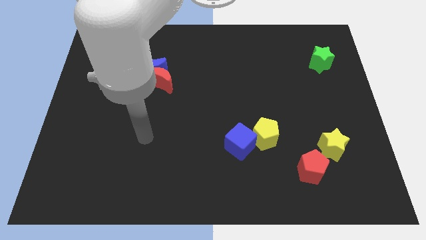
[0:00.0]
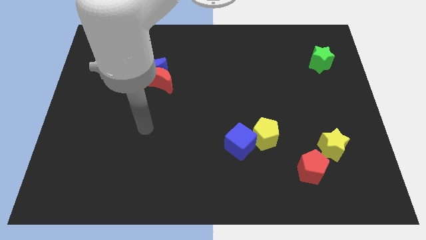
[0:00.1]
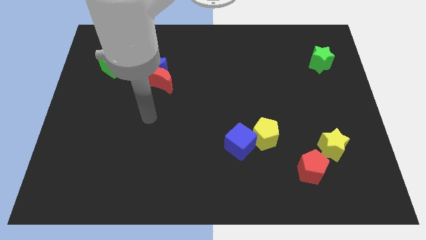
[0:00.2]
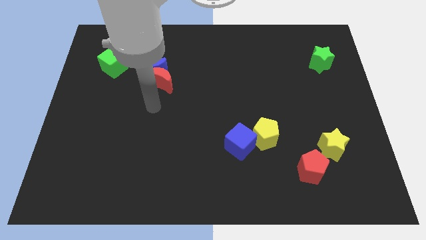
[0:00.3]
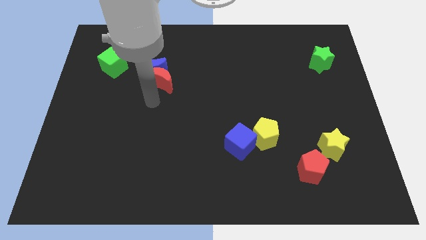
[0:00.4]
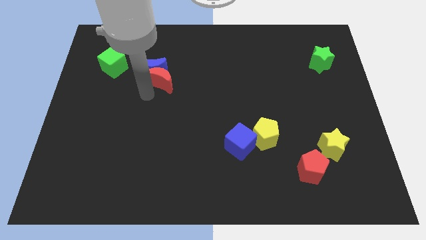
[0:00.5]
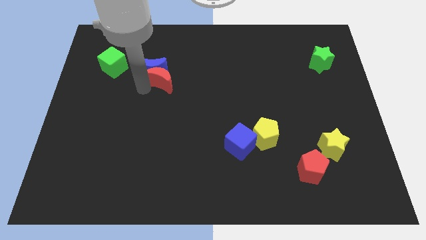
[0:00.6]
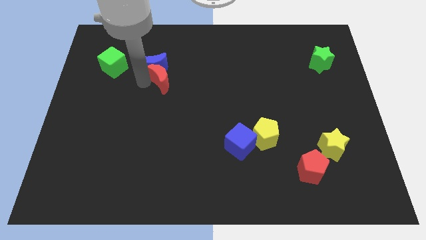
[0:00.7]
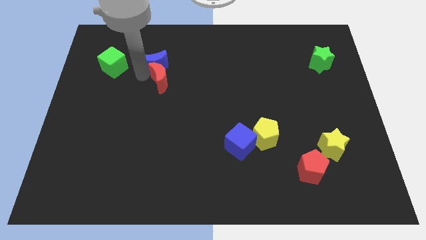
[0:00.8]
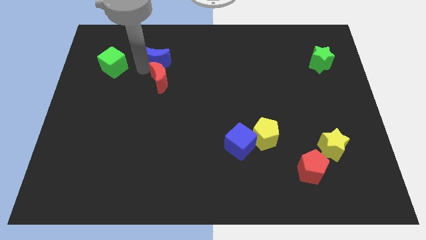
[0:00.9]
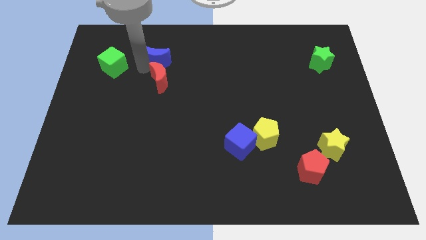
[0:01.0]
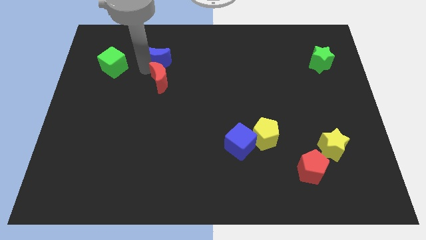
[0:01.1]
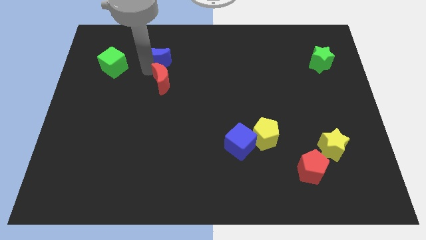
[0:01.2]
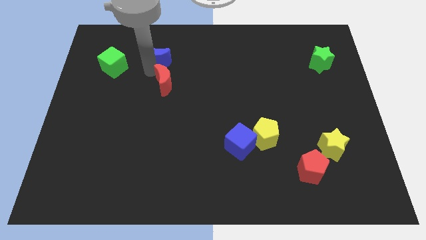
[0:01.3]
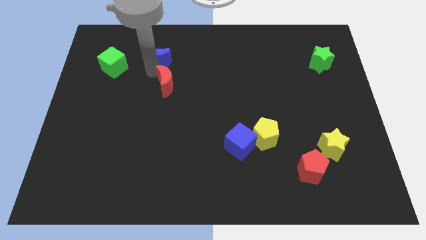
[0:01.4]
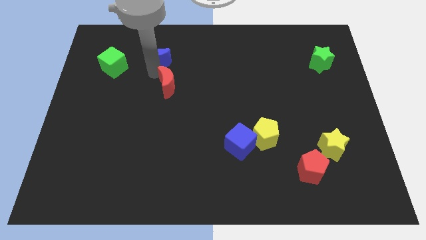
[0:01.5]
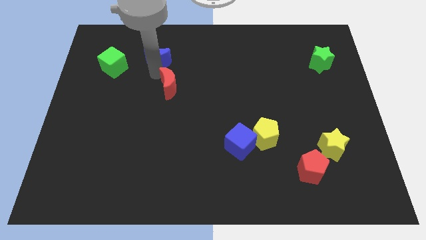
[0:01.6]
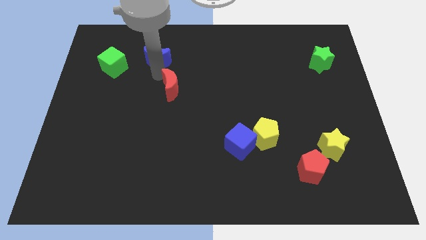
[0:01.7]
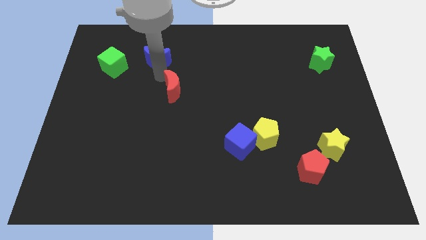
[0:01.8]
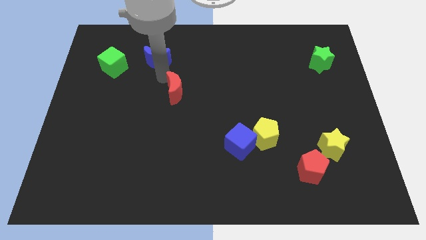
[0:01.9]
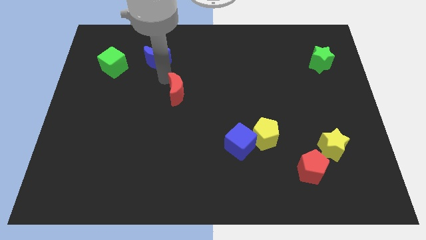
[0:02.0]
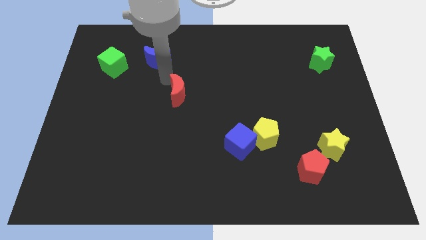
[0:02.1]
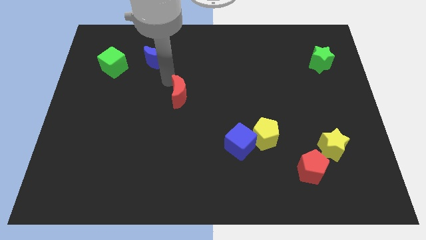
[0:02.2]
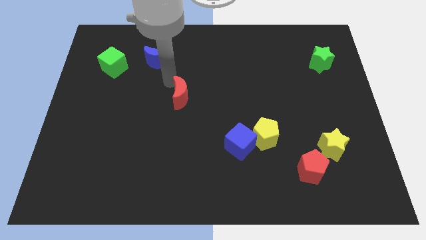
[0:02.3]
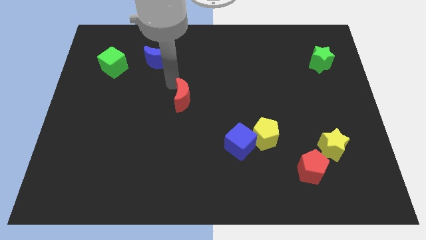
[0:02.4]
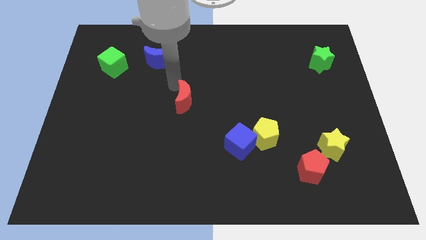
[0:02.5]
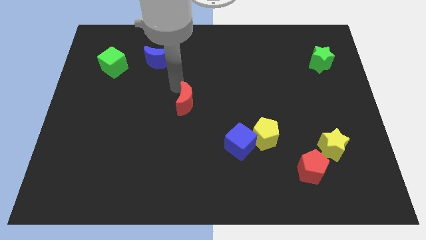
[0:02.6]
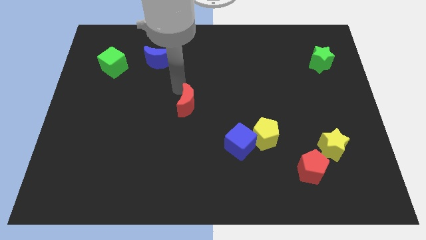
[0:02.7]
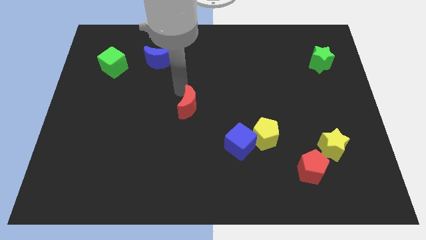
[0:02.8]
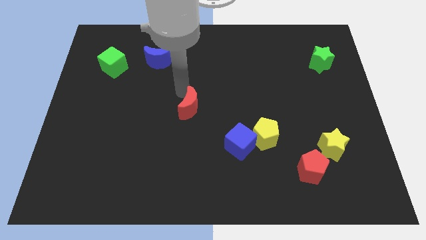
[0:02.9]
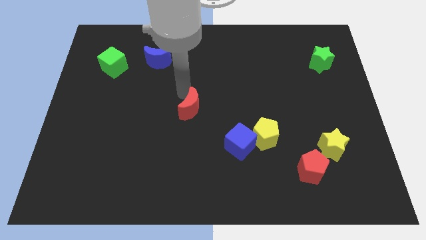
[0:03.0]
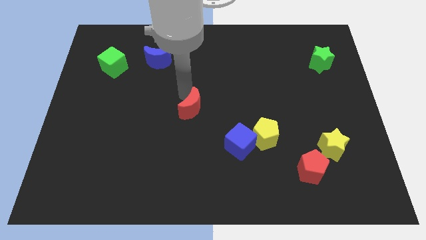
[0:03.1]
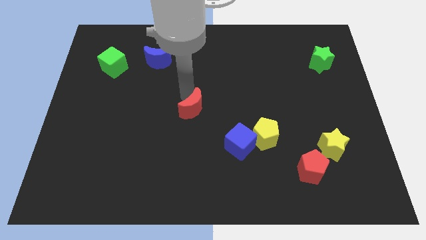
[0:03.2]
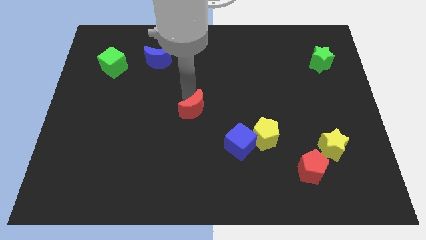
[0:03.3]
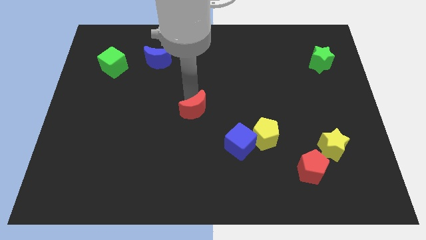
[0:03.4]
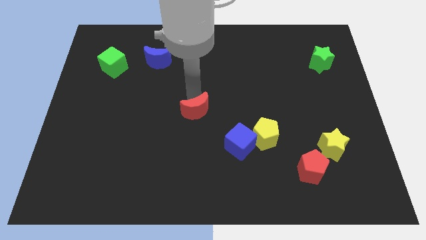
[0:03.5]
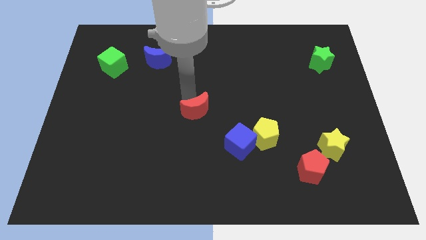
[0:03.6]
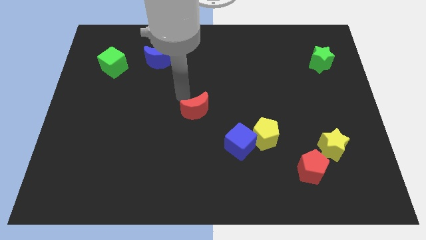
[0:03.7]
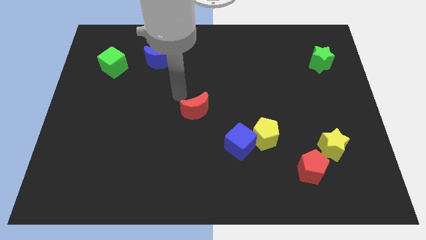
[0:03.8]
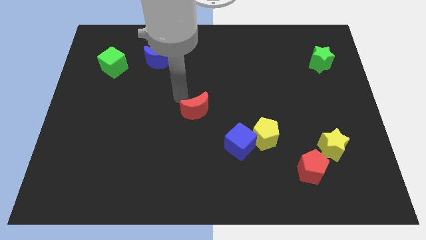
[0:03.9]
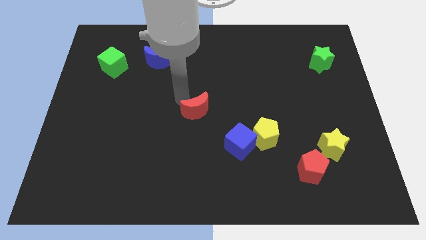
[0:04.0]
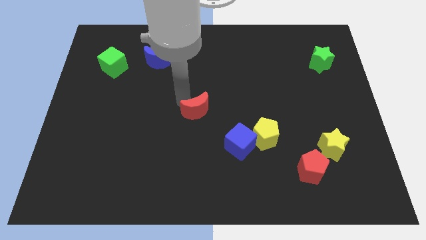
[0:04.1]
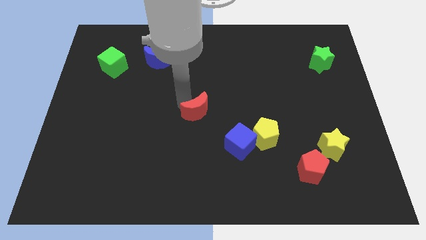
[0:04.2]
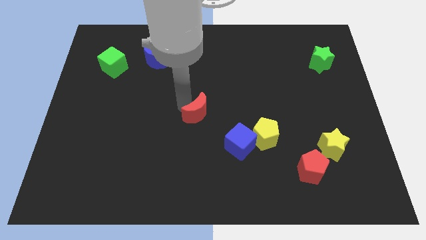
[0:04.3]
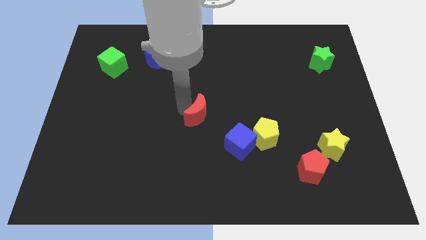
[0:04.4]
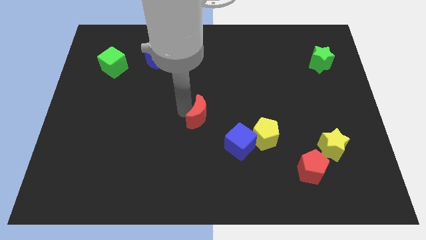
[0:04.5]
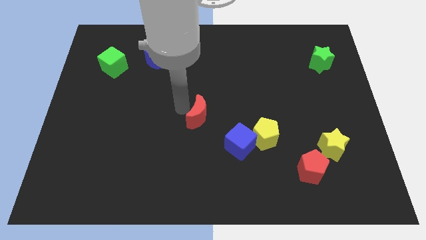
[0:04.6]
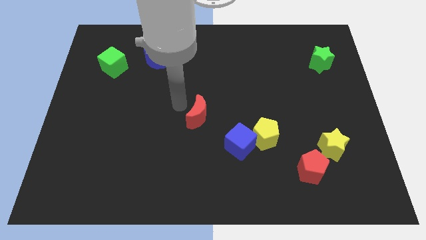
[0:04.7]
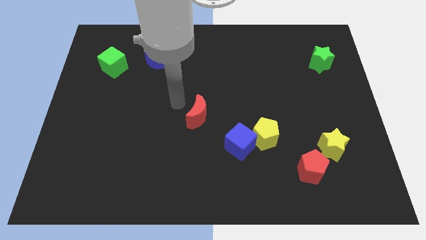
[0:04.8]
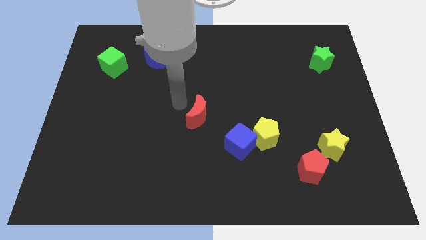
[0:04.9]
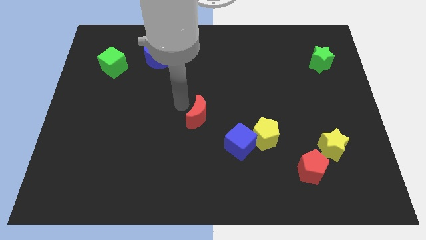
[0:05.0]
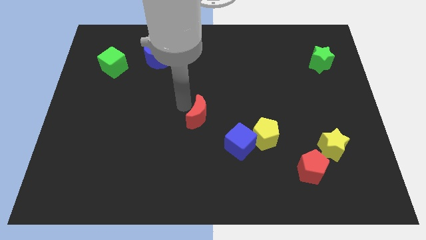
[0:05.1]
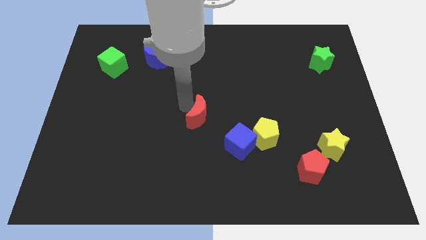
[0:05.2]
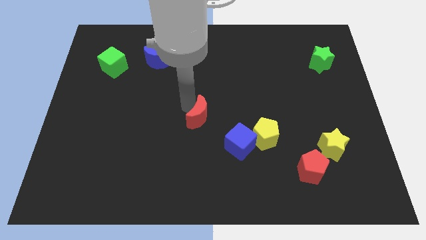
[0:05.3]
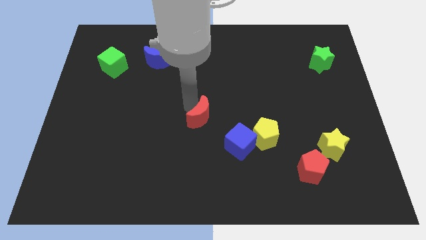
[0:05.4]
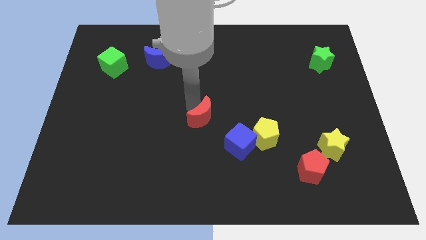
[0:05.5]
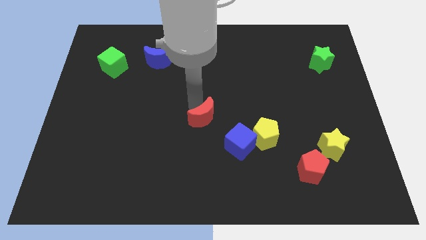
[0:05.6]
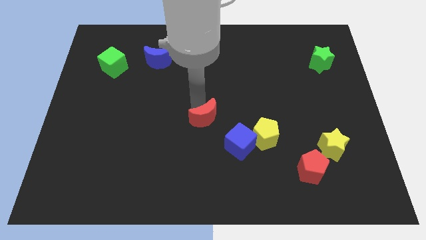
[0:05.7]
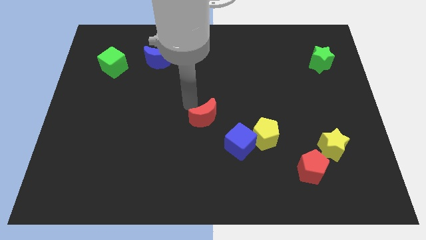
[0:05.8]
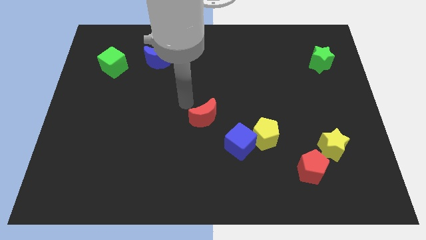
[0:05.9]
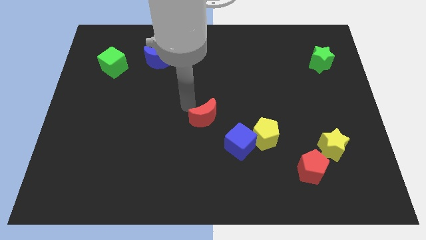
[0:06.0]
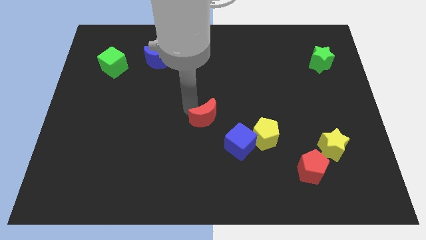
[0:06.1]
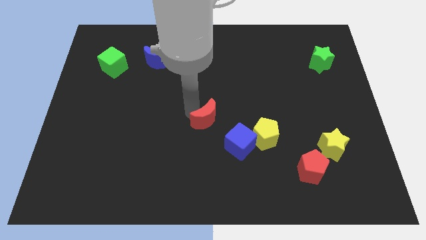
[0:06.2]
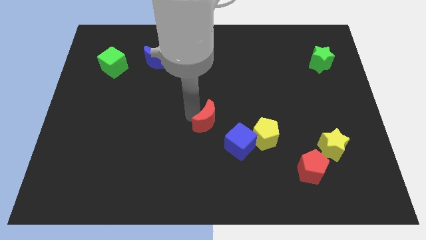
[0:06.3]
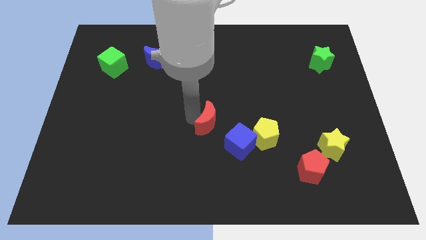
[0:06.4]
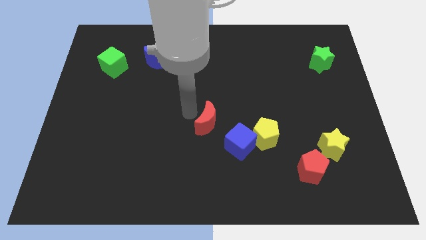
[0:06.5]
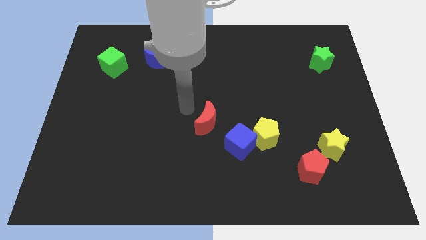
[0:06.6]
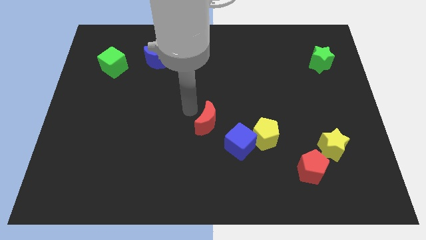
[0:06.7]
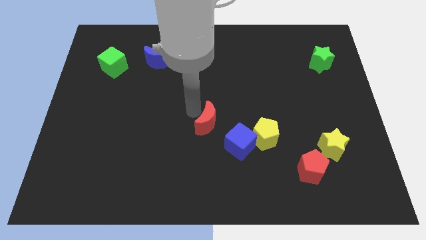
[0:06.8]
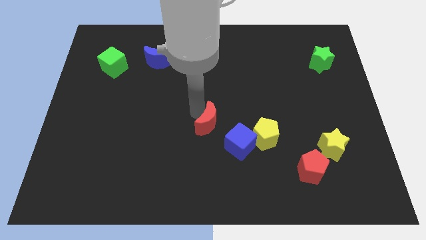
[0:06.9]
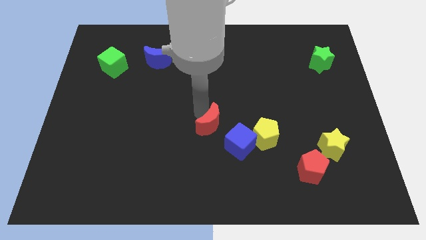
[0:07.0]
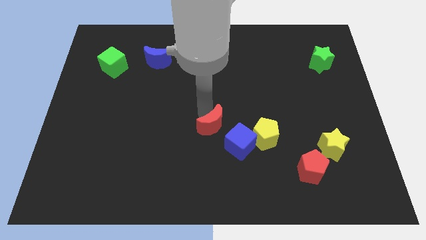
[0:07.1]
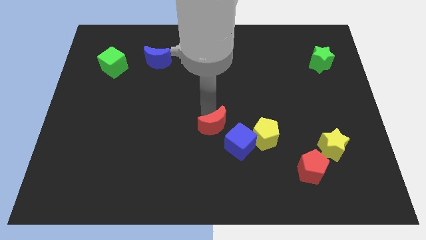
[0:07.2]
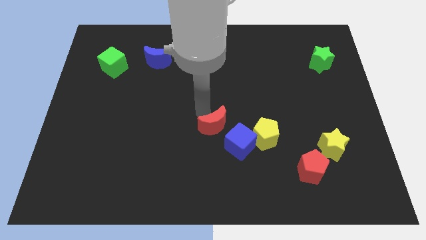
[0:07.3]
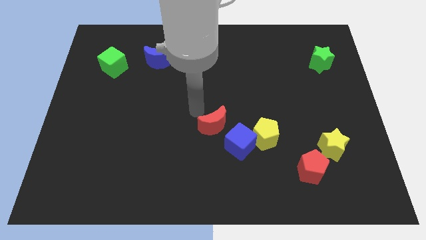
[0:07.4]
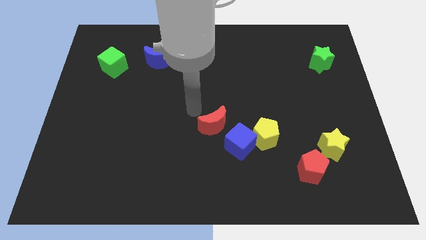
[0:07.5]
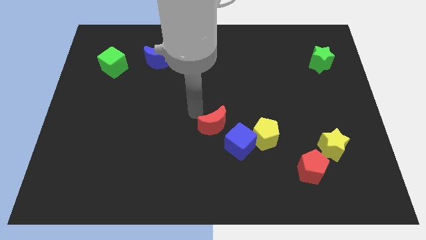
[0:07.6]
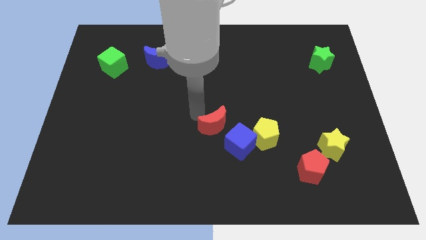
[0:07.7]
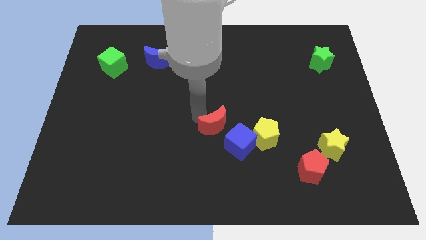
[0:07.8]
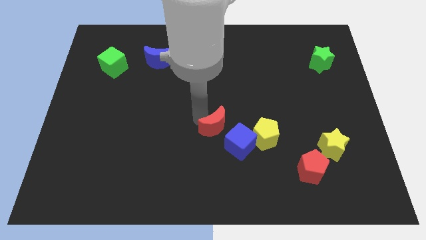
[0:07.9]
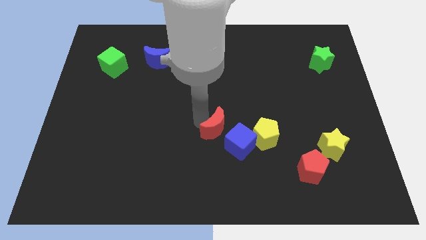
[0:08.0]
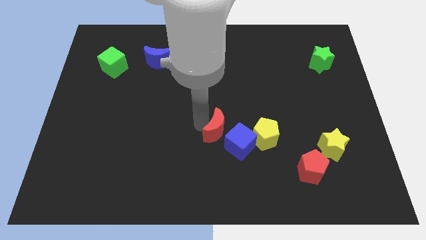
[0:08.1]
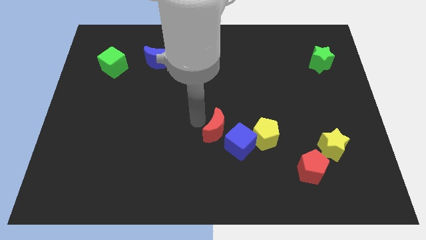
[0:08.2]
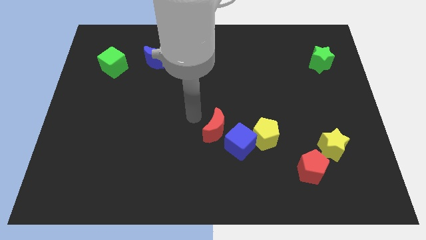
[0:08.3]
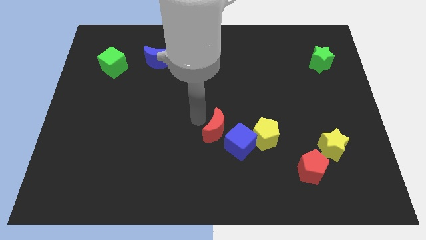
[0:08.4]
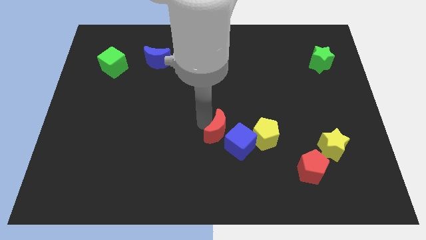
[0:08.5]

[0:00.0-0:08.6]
move the red moon next to the blue cube
